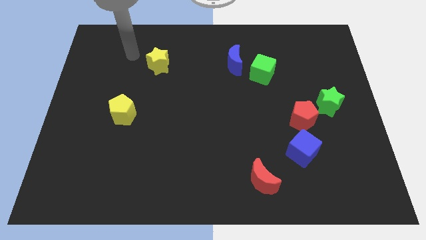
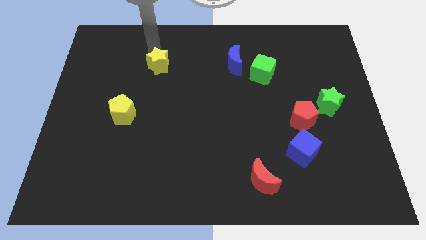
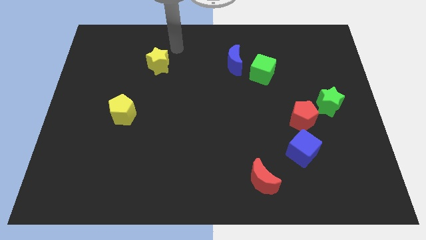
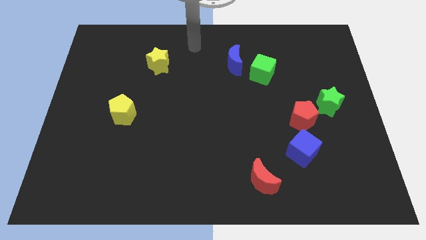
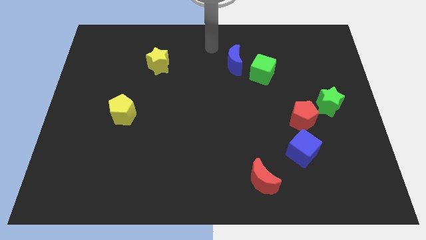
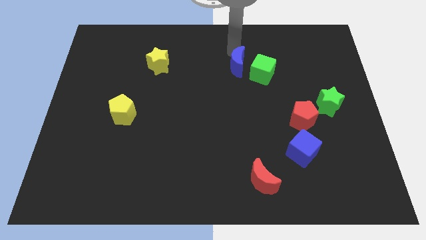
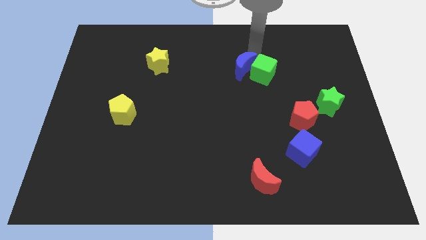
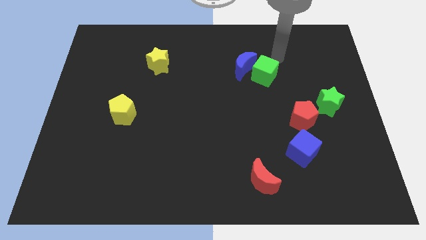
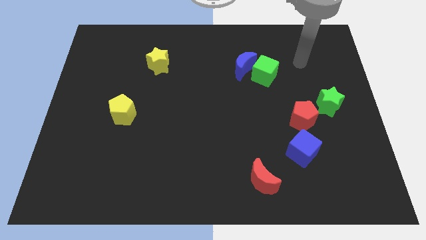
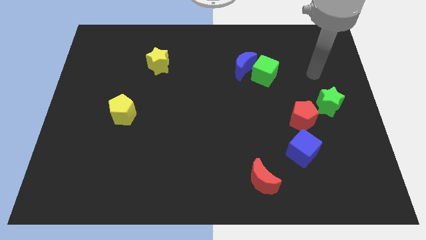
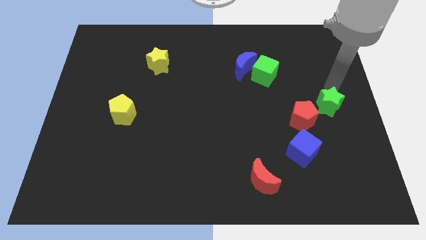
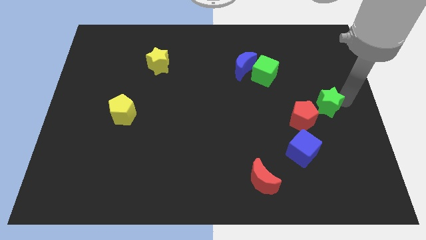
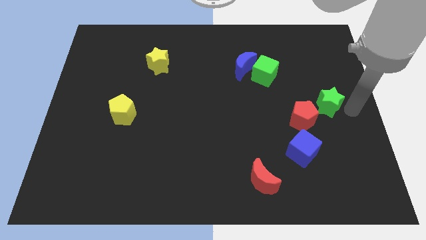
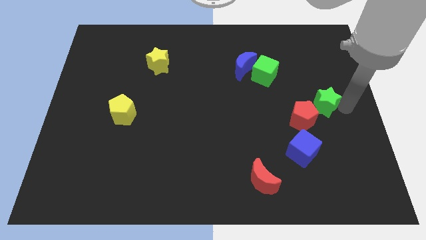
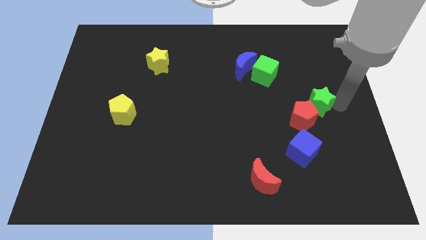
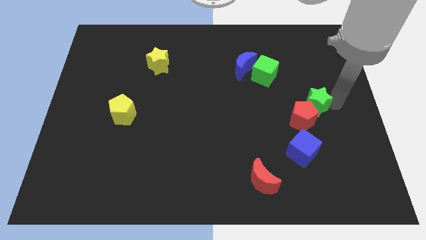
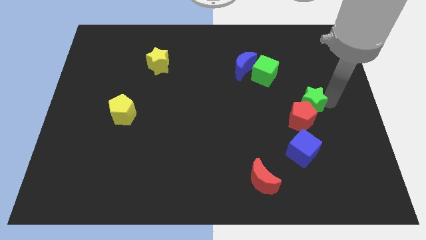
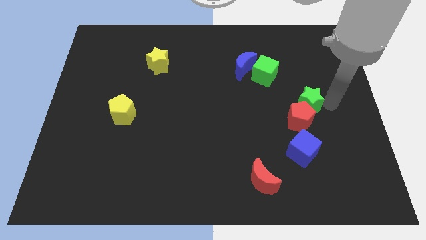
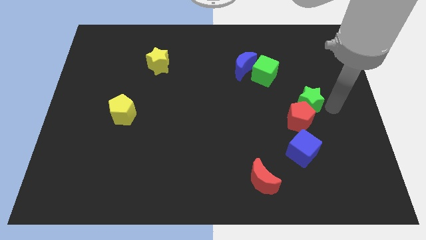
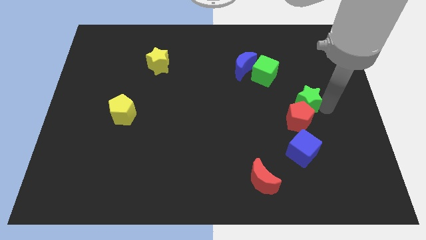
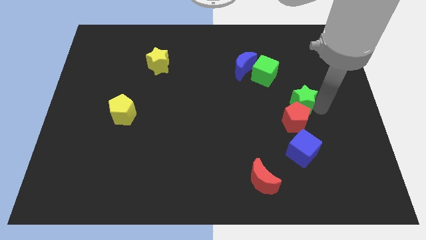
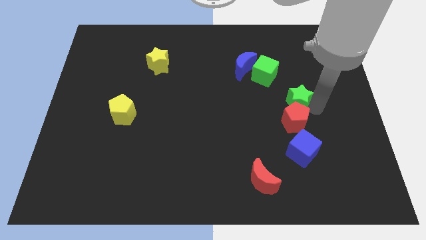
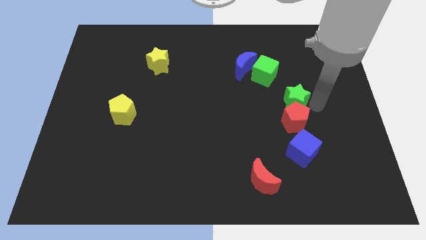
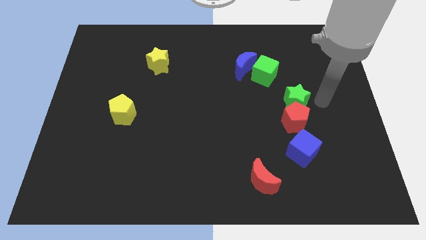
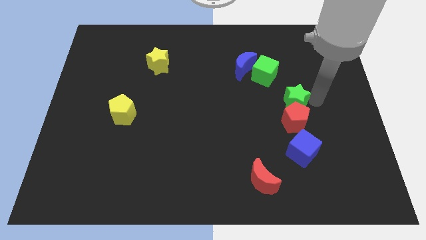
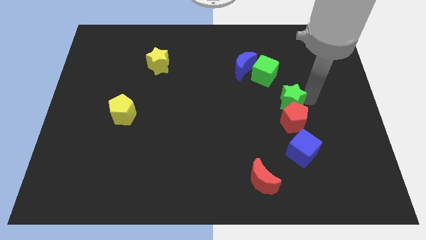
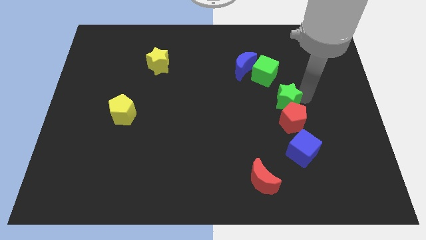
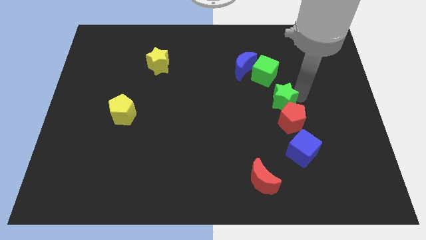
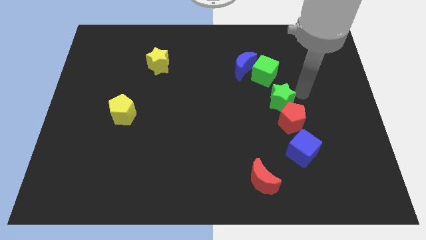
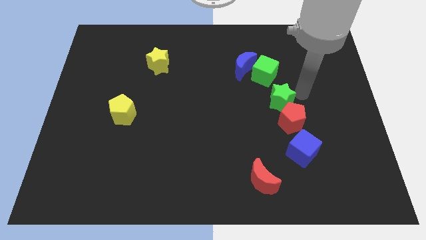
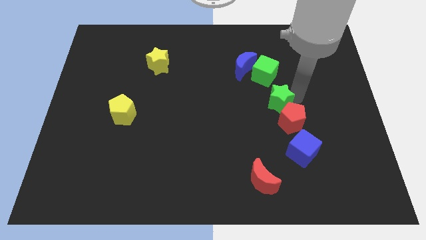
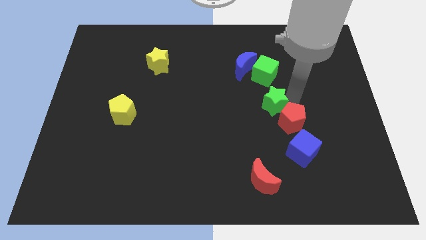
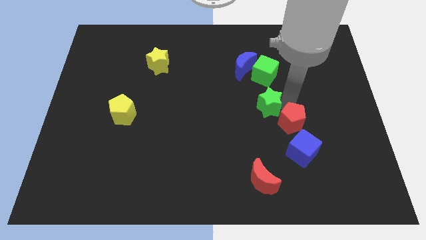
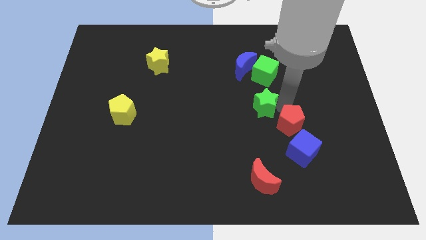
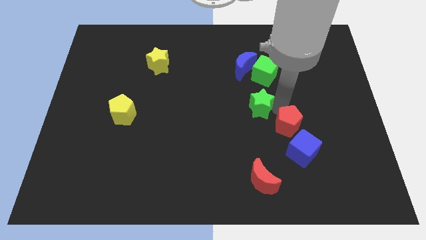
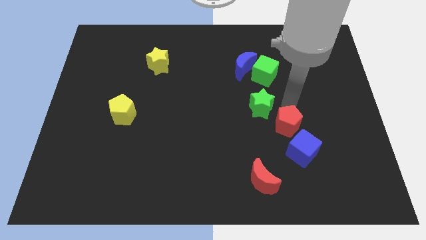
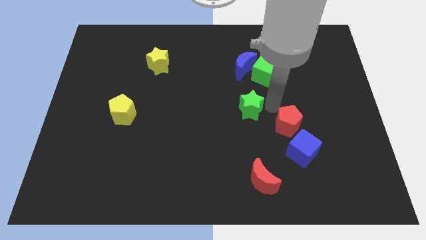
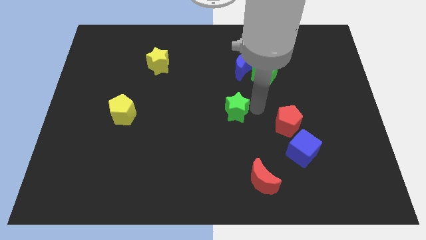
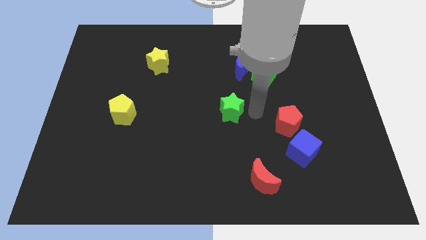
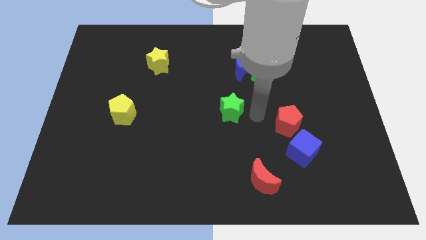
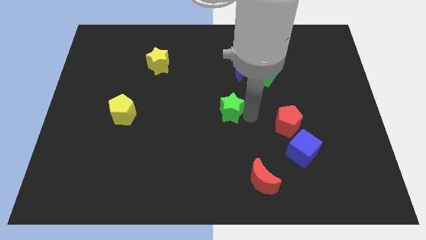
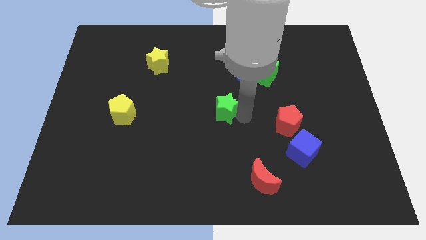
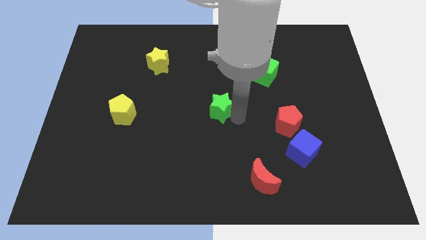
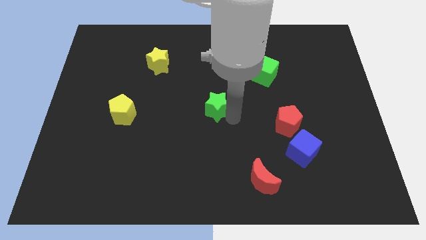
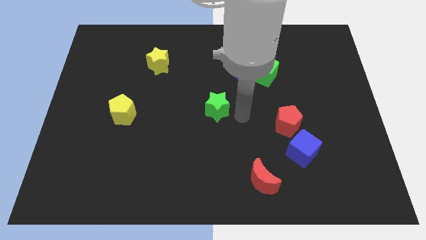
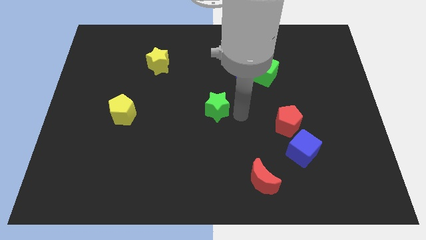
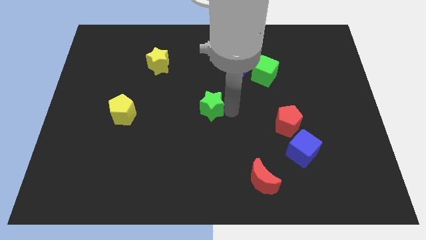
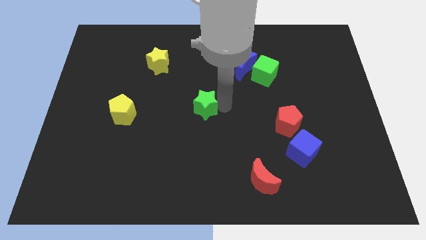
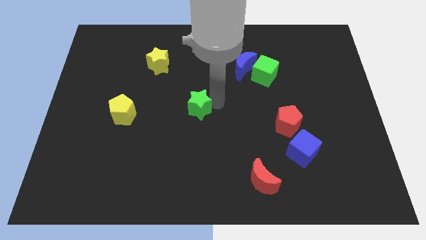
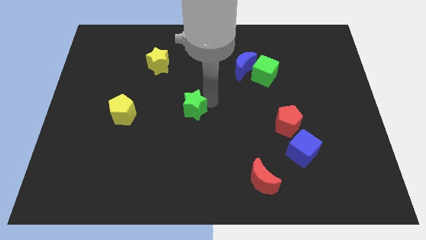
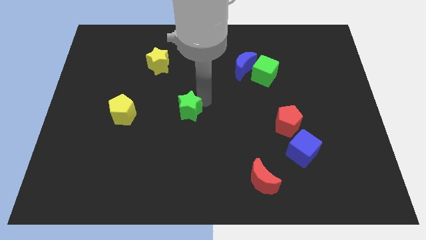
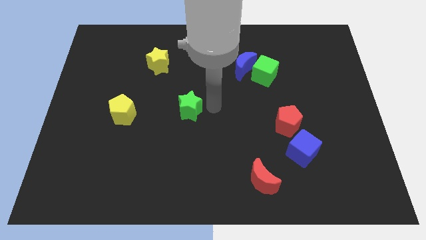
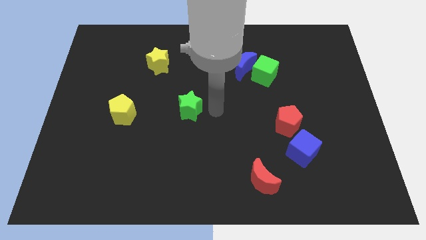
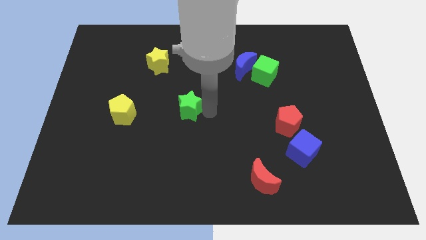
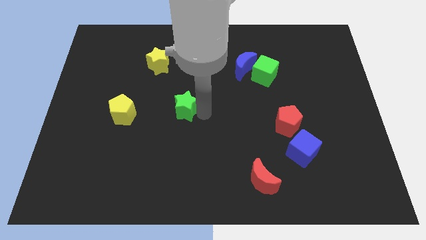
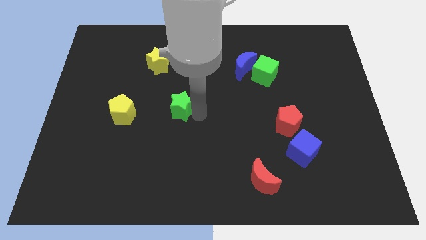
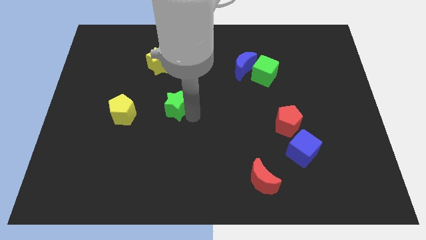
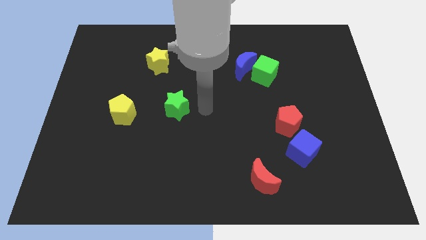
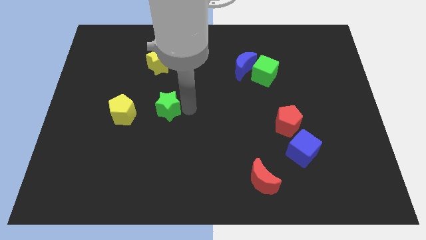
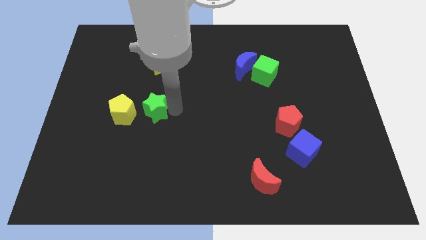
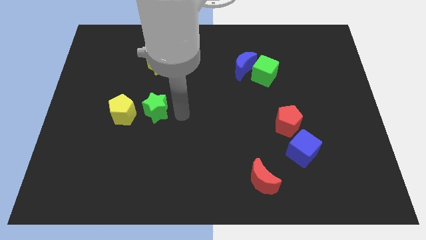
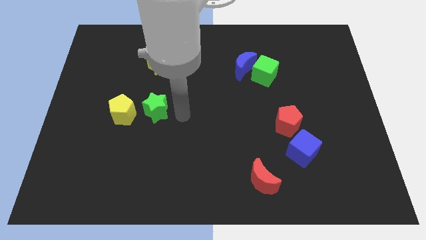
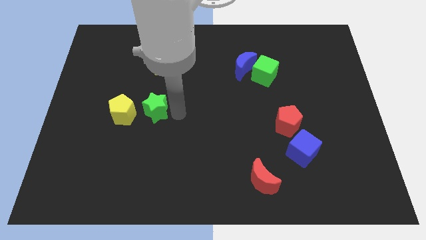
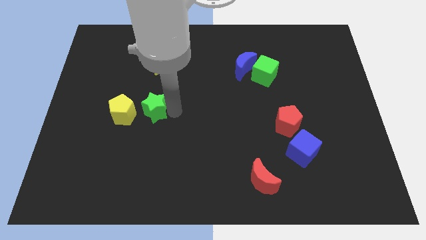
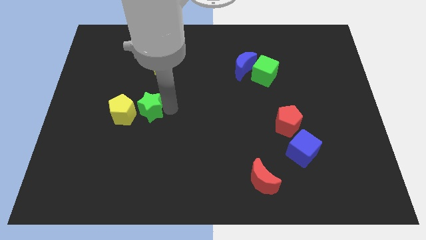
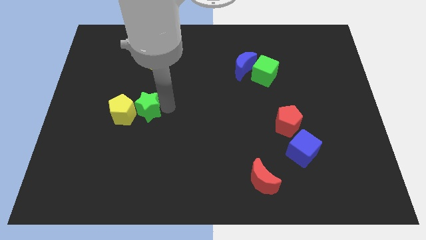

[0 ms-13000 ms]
push the green star to the yellow pentagon
